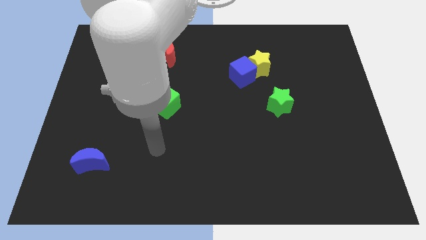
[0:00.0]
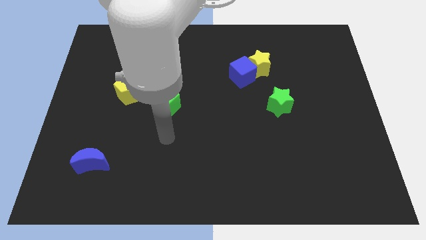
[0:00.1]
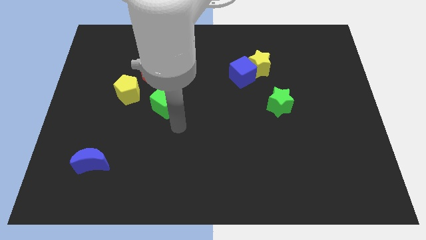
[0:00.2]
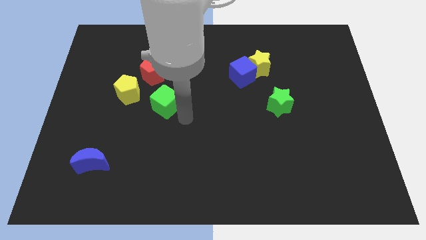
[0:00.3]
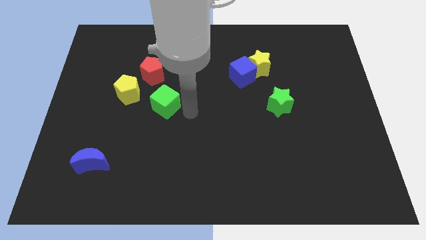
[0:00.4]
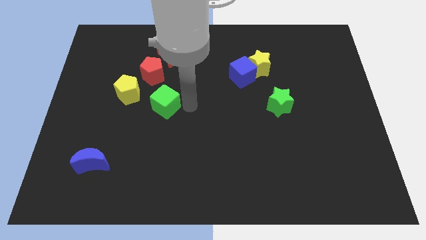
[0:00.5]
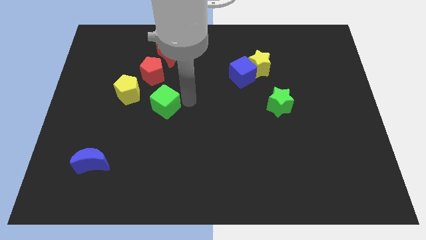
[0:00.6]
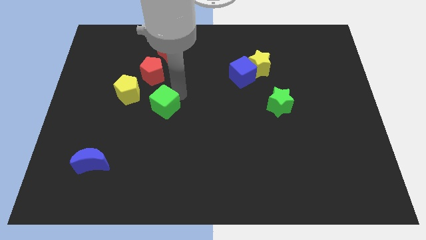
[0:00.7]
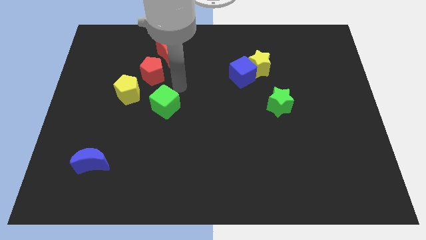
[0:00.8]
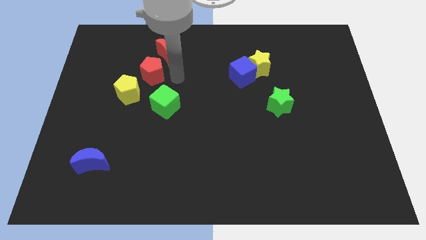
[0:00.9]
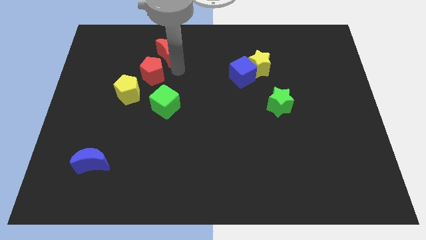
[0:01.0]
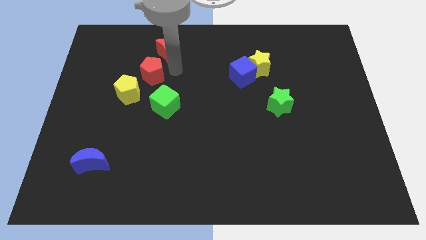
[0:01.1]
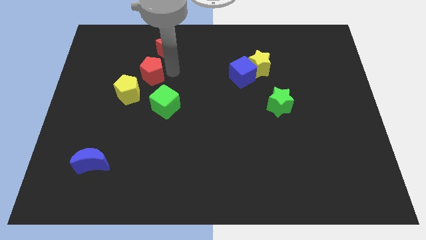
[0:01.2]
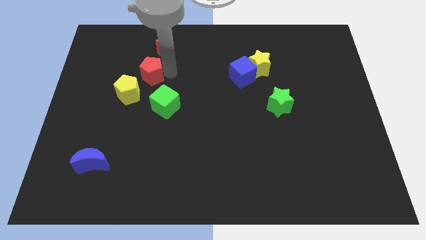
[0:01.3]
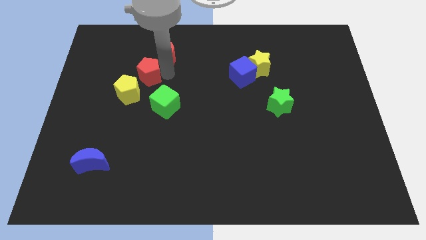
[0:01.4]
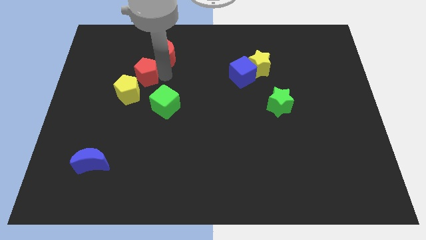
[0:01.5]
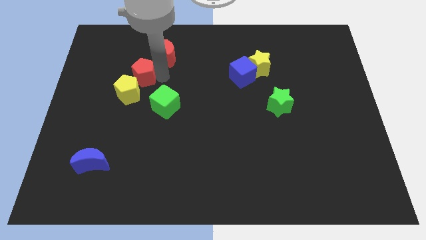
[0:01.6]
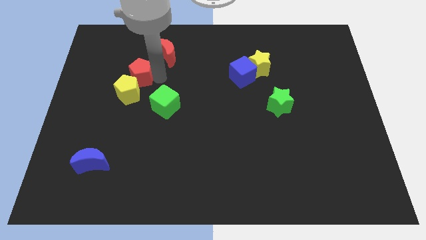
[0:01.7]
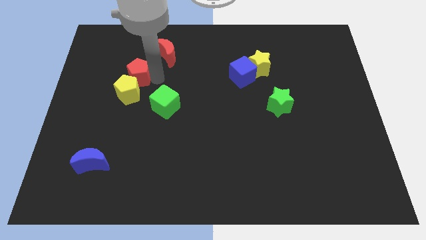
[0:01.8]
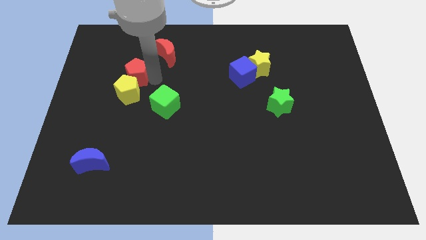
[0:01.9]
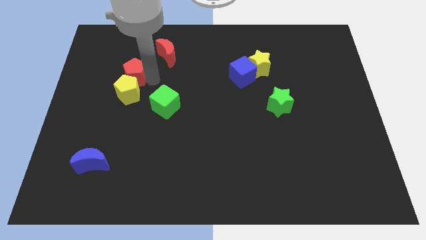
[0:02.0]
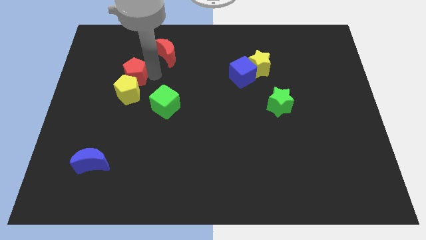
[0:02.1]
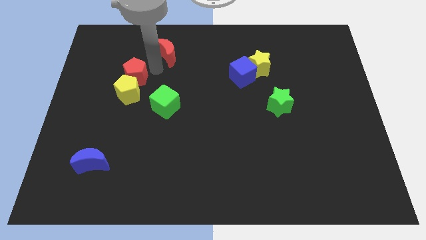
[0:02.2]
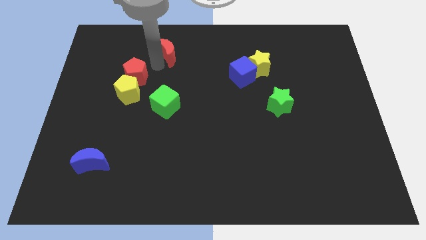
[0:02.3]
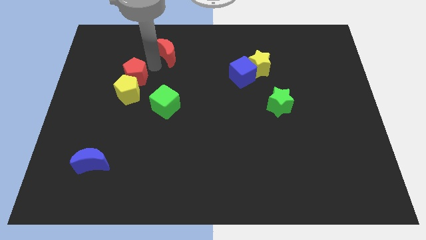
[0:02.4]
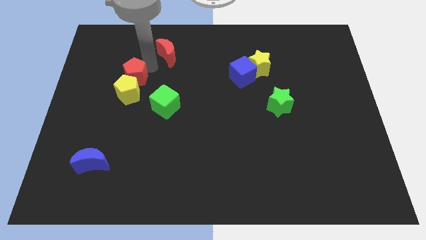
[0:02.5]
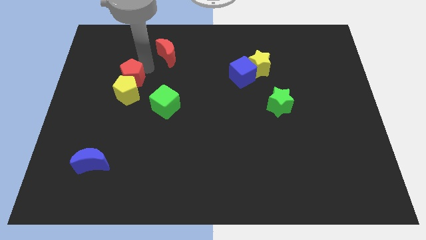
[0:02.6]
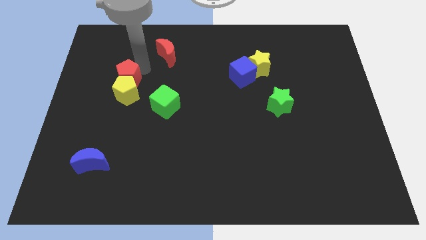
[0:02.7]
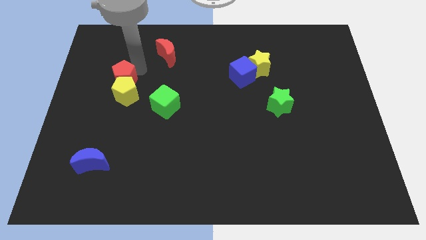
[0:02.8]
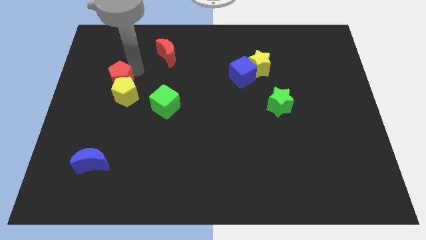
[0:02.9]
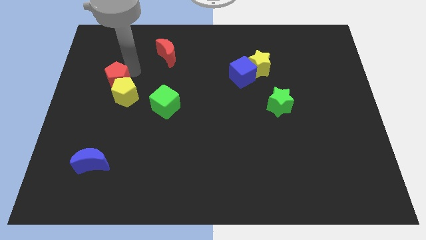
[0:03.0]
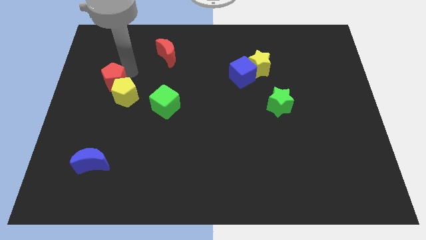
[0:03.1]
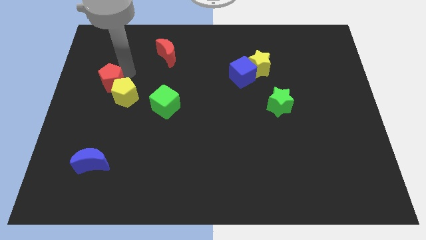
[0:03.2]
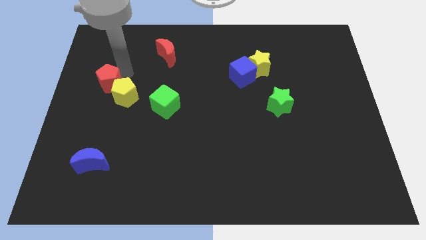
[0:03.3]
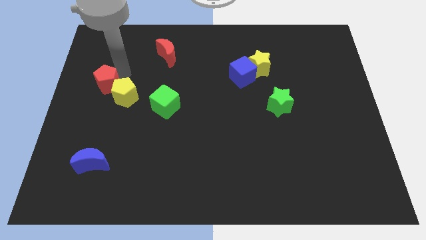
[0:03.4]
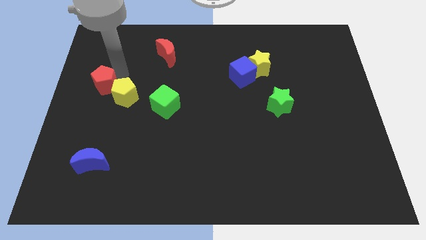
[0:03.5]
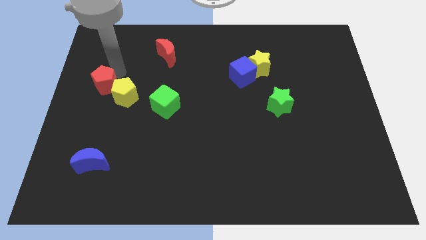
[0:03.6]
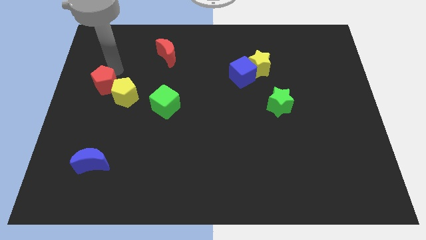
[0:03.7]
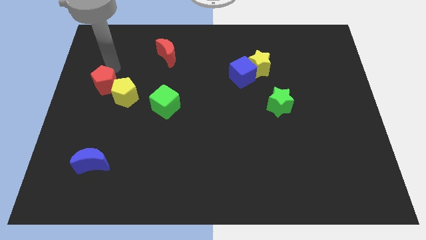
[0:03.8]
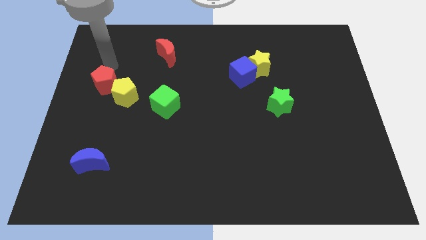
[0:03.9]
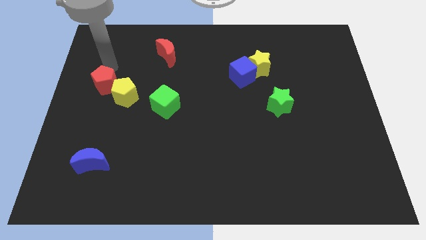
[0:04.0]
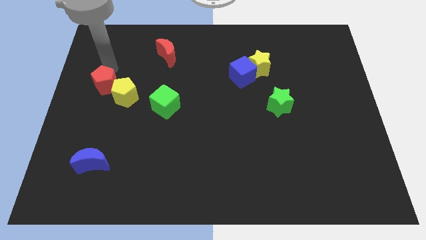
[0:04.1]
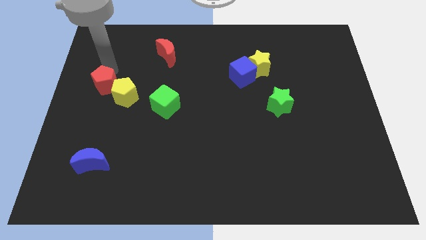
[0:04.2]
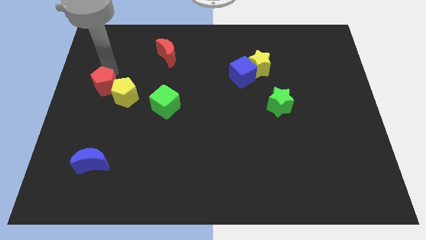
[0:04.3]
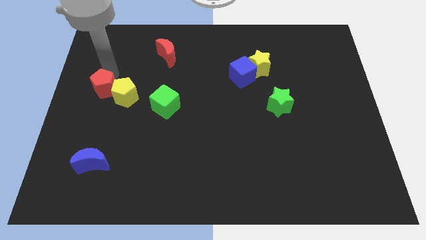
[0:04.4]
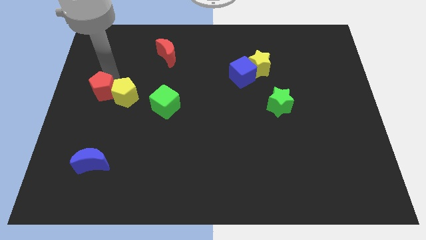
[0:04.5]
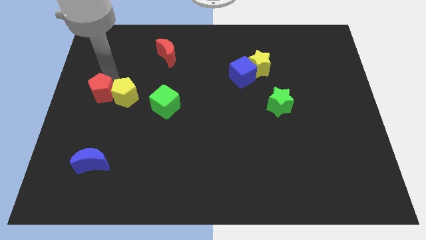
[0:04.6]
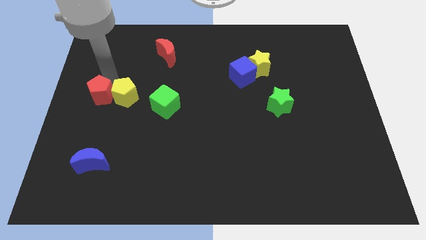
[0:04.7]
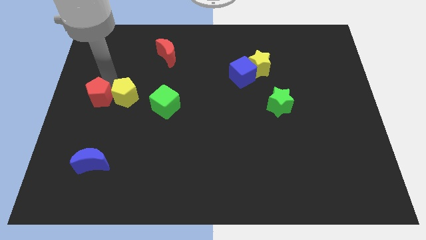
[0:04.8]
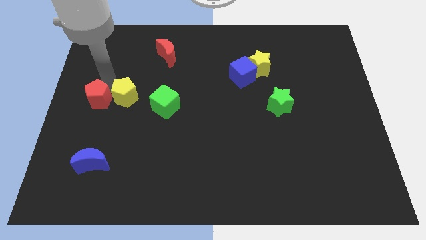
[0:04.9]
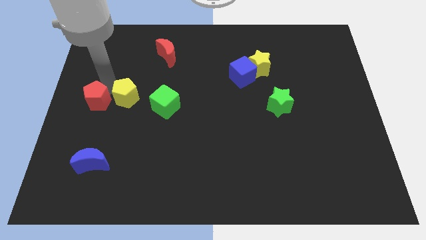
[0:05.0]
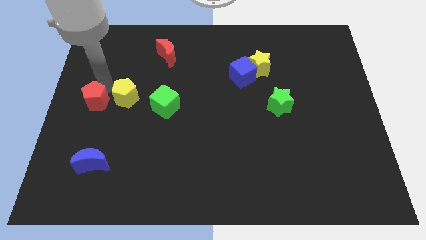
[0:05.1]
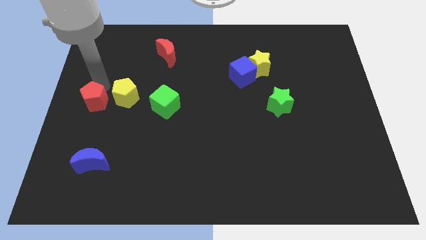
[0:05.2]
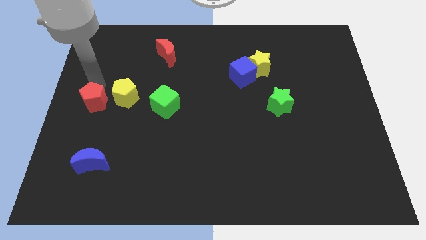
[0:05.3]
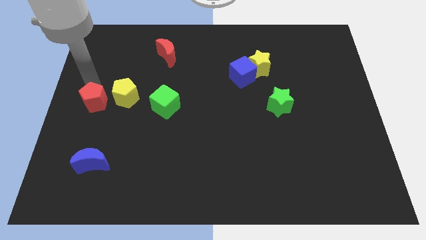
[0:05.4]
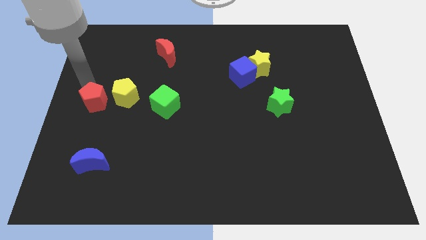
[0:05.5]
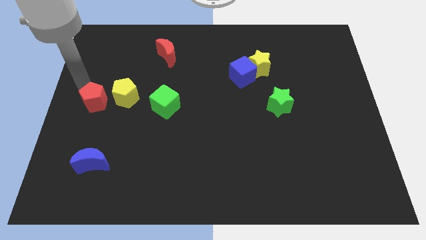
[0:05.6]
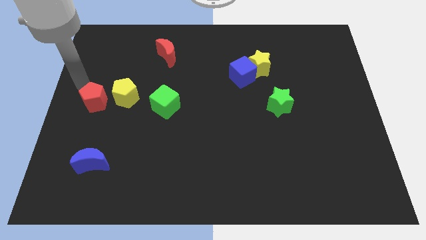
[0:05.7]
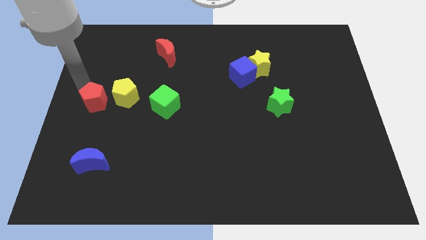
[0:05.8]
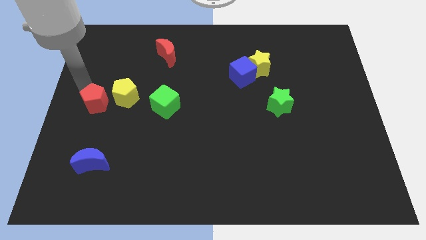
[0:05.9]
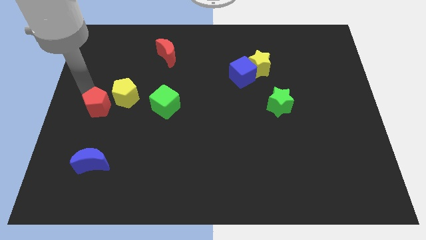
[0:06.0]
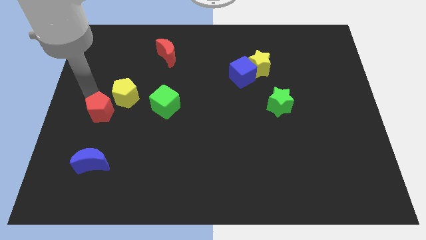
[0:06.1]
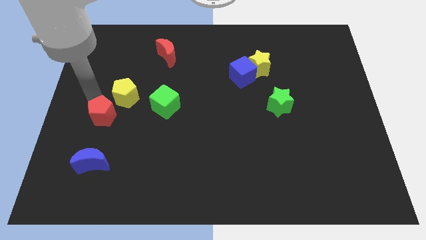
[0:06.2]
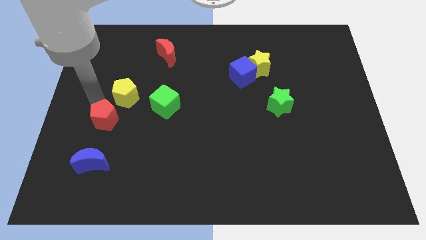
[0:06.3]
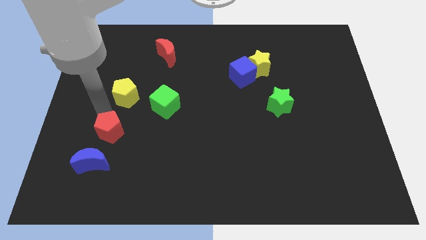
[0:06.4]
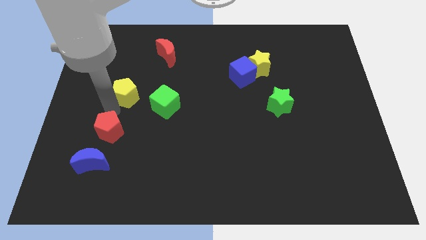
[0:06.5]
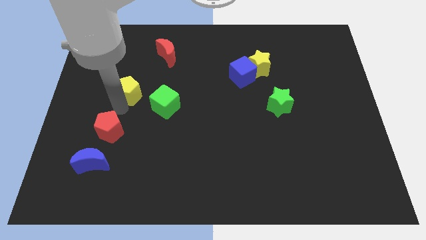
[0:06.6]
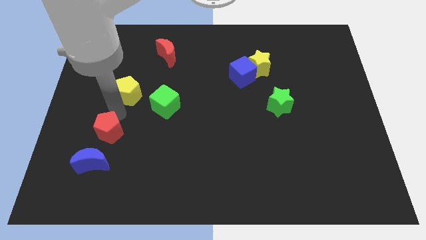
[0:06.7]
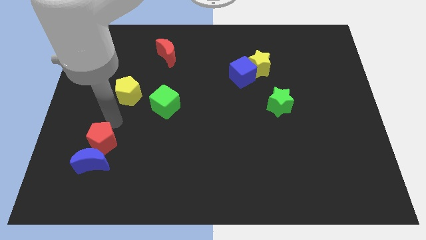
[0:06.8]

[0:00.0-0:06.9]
push the red pentagon close to the blue moon

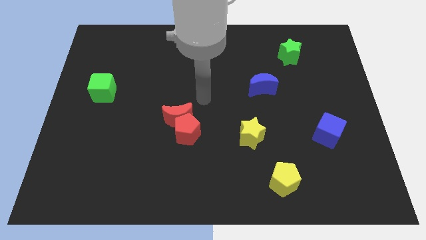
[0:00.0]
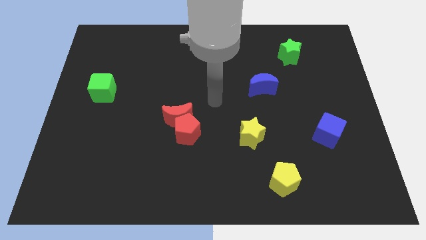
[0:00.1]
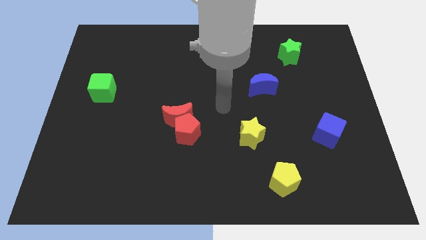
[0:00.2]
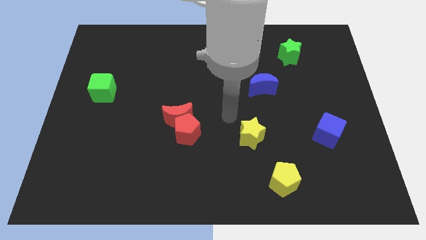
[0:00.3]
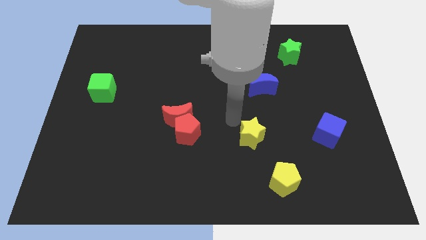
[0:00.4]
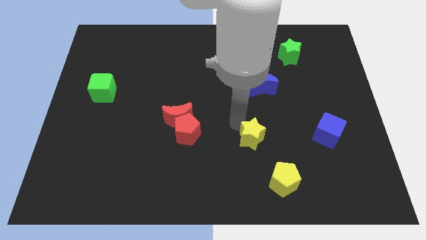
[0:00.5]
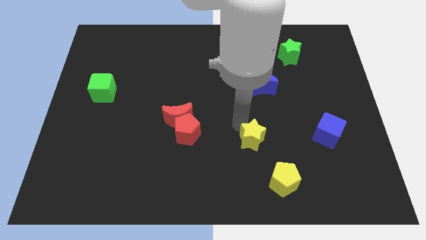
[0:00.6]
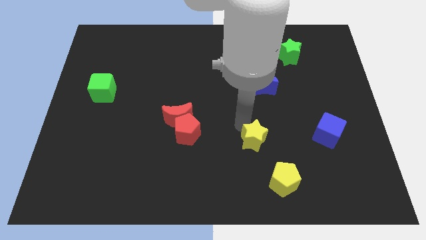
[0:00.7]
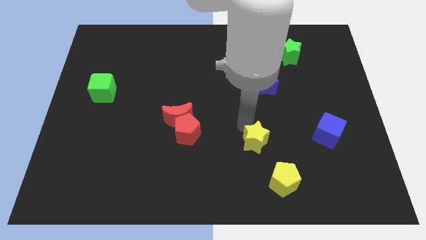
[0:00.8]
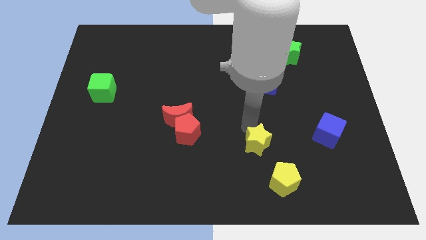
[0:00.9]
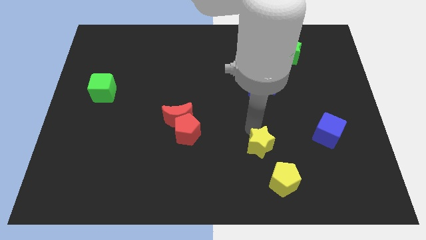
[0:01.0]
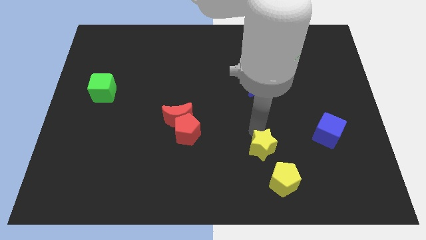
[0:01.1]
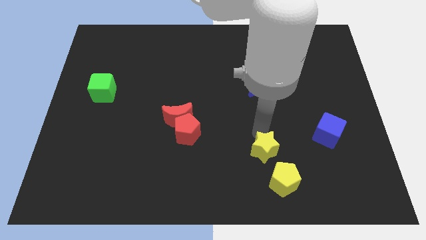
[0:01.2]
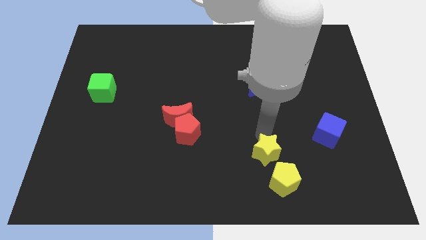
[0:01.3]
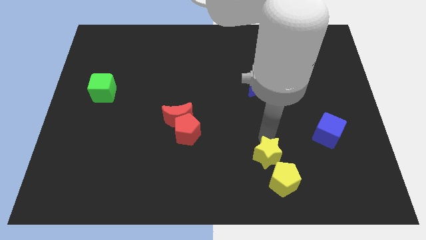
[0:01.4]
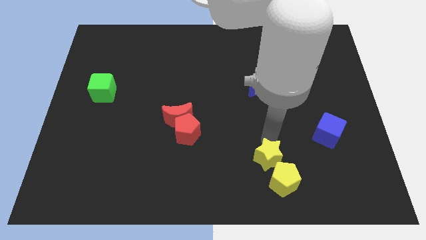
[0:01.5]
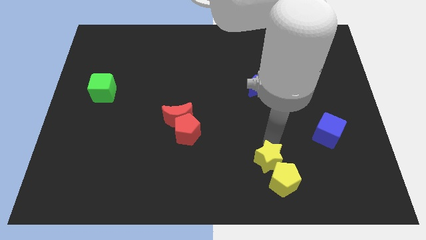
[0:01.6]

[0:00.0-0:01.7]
put the yellow star close to the yellow pentagon
